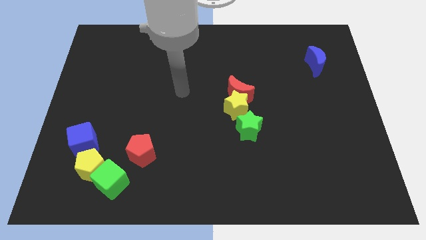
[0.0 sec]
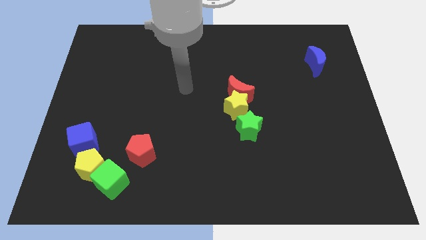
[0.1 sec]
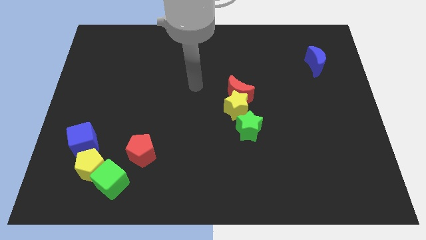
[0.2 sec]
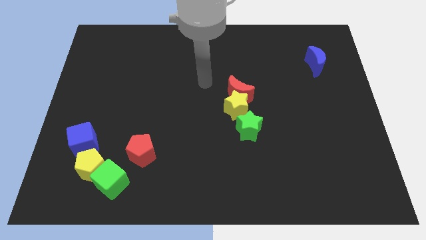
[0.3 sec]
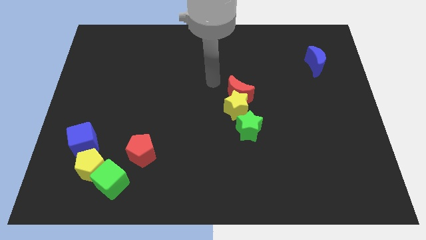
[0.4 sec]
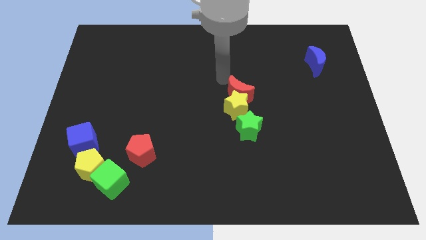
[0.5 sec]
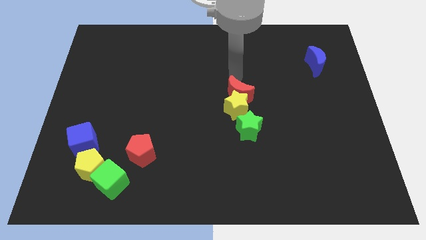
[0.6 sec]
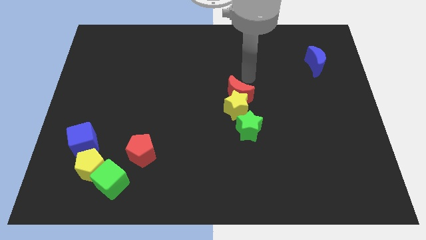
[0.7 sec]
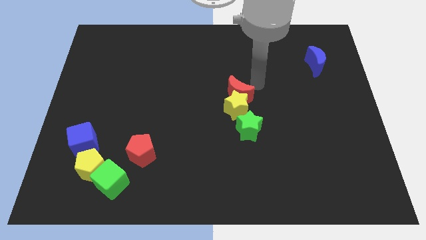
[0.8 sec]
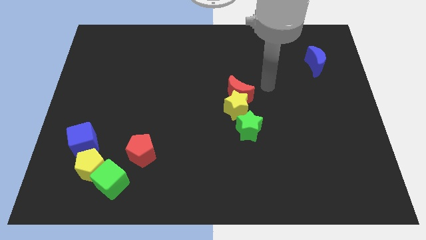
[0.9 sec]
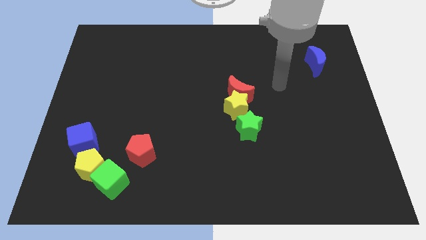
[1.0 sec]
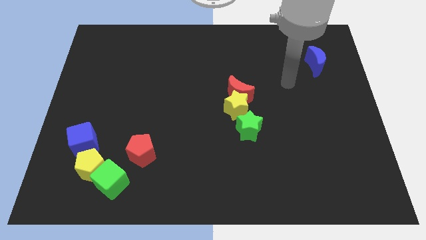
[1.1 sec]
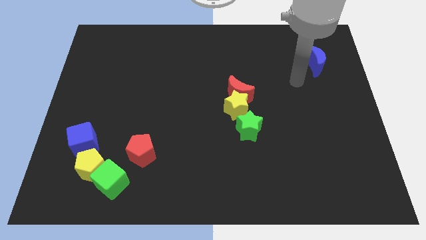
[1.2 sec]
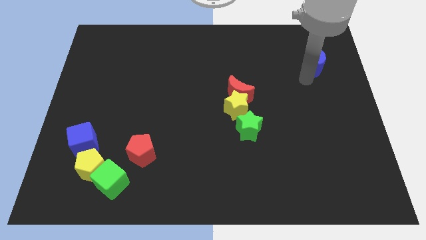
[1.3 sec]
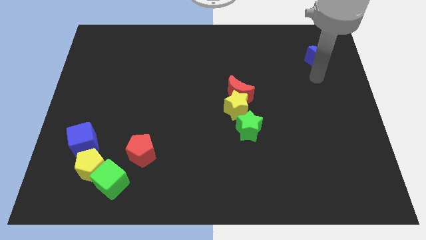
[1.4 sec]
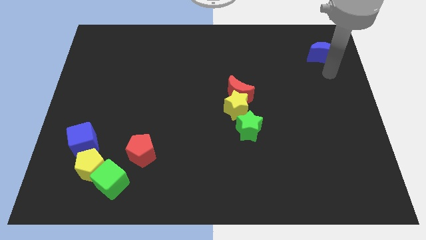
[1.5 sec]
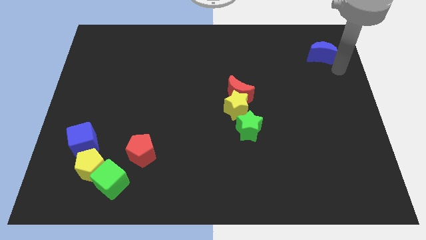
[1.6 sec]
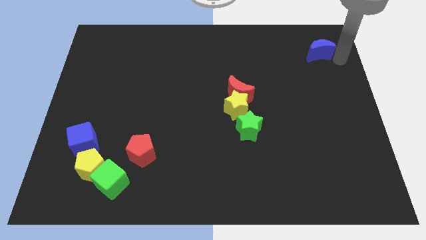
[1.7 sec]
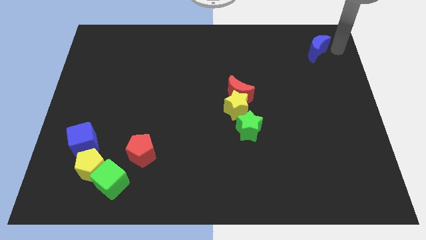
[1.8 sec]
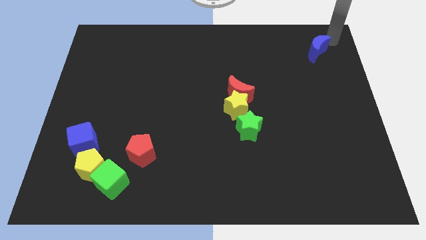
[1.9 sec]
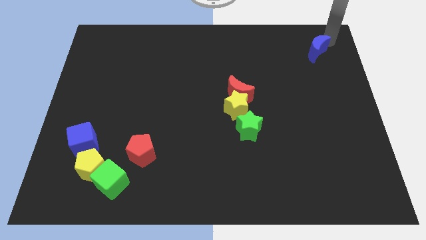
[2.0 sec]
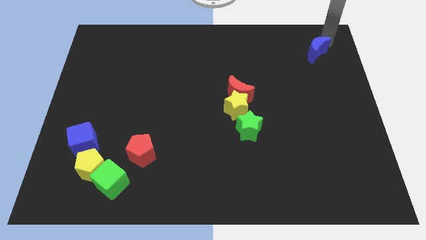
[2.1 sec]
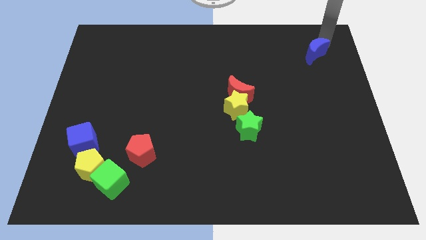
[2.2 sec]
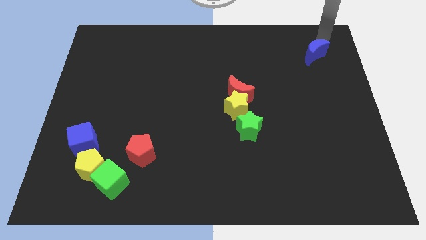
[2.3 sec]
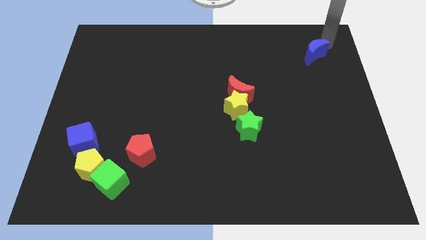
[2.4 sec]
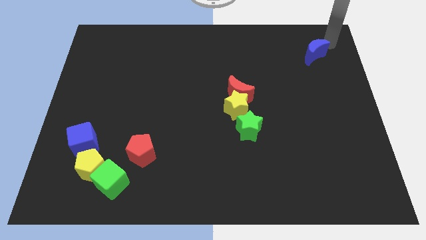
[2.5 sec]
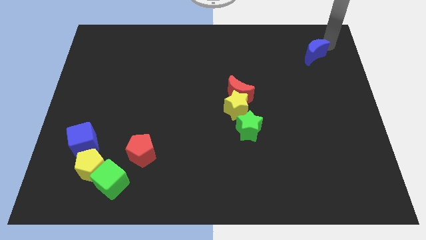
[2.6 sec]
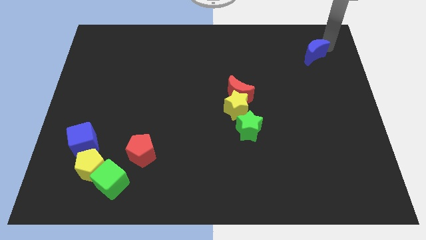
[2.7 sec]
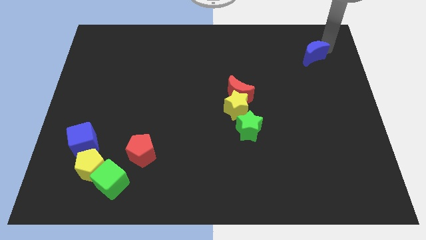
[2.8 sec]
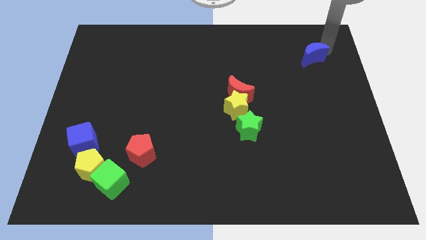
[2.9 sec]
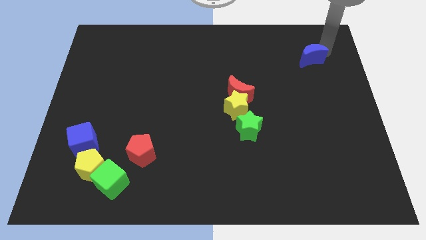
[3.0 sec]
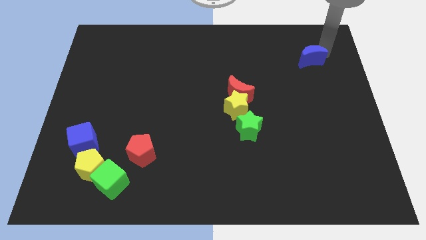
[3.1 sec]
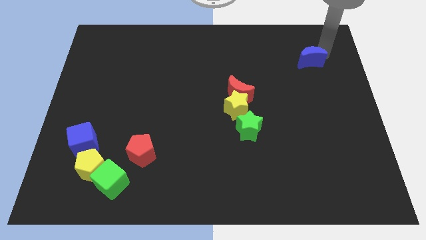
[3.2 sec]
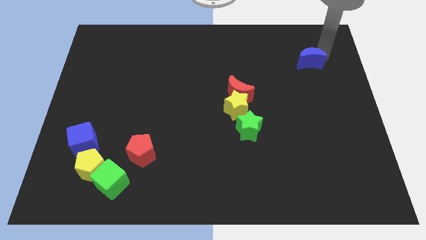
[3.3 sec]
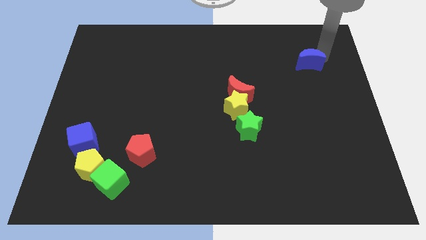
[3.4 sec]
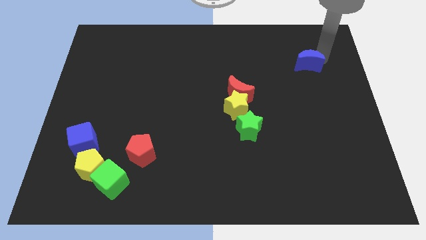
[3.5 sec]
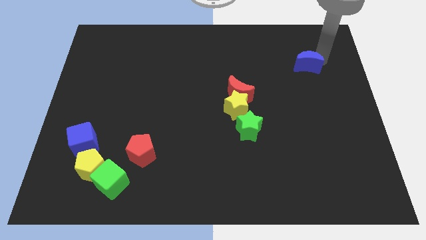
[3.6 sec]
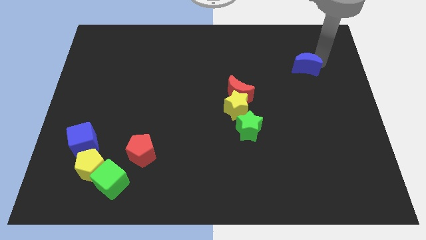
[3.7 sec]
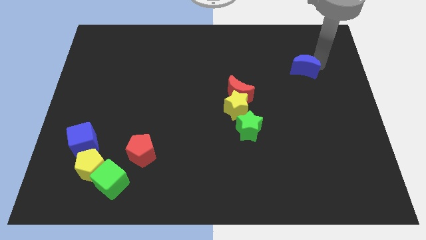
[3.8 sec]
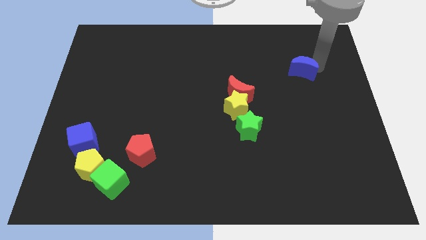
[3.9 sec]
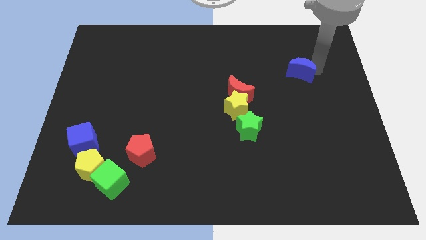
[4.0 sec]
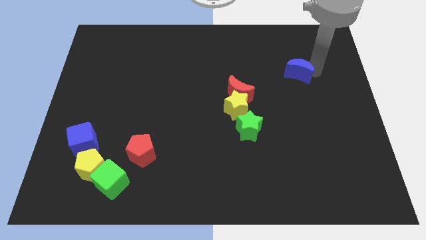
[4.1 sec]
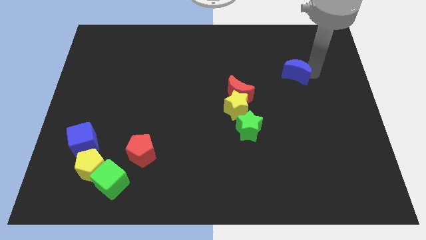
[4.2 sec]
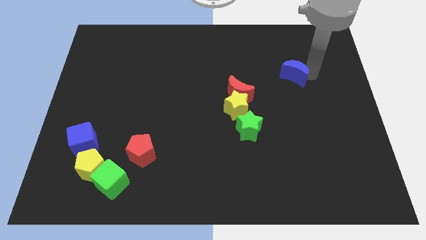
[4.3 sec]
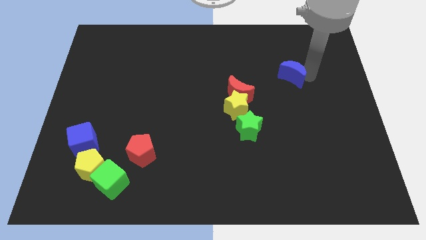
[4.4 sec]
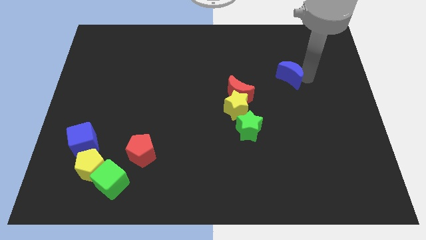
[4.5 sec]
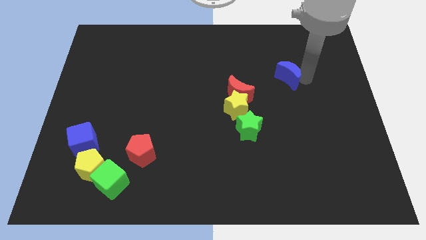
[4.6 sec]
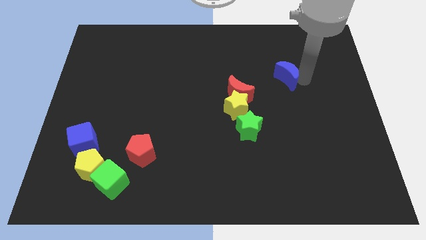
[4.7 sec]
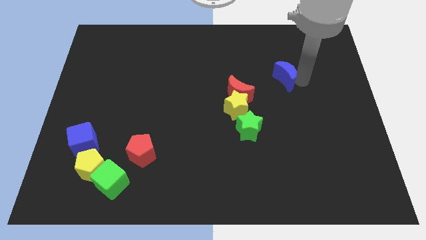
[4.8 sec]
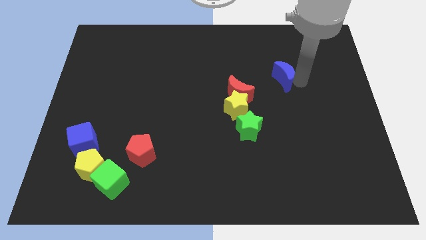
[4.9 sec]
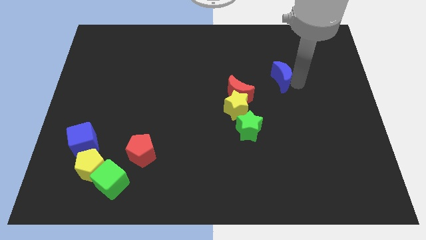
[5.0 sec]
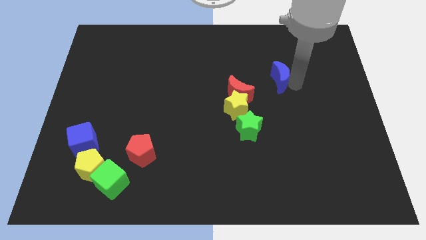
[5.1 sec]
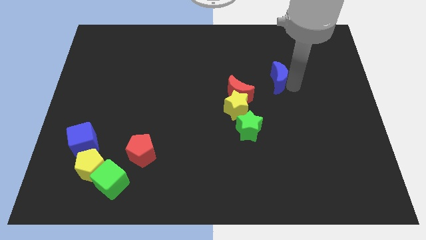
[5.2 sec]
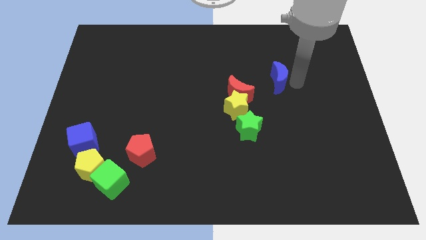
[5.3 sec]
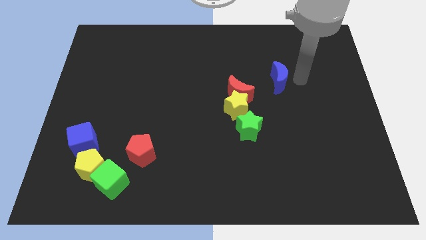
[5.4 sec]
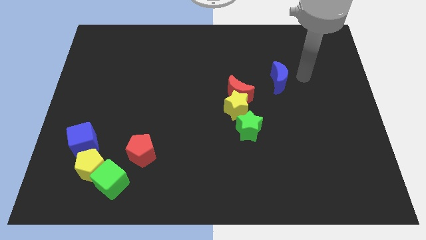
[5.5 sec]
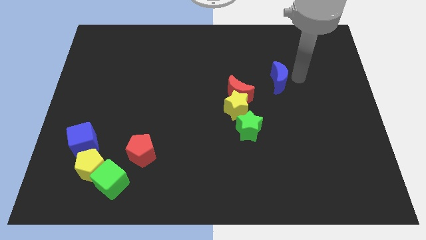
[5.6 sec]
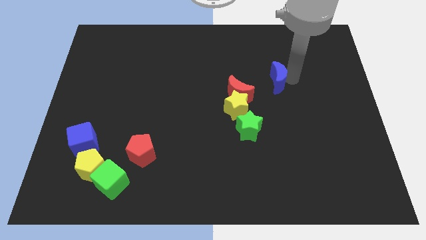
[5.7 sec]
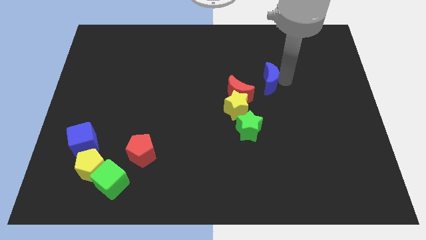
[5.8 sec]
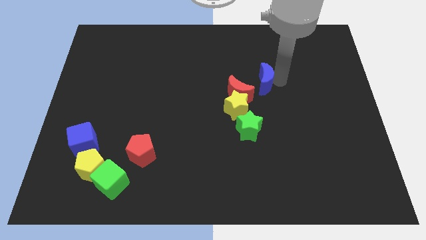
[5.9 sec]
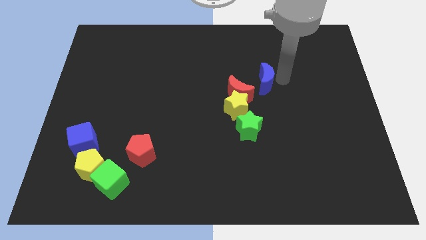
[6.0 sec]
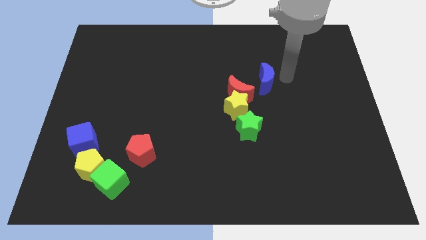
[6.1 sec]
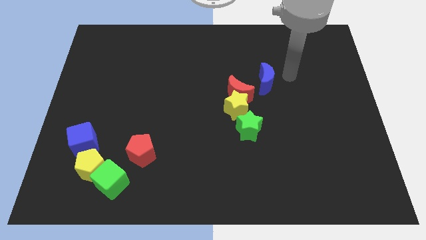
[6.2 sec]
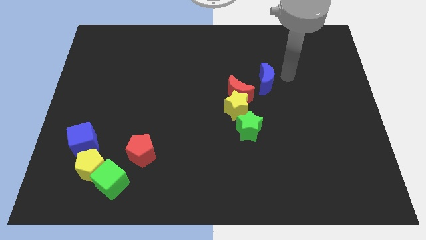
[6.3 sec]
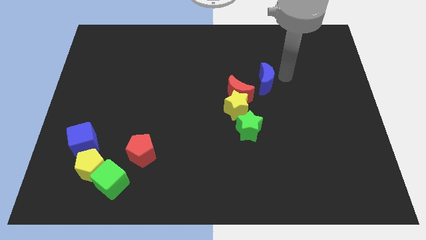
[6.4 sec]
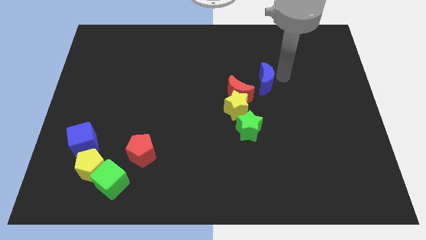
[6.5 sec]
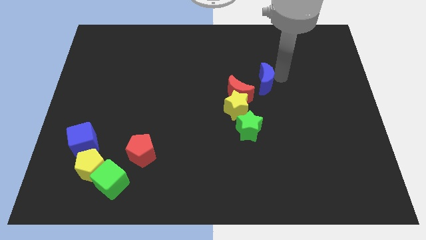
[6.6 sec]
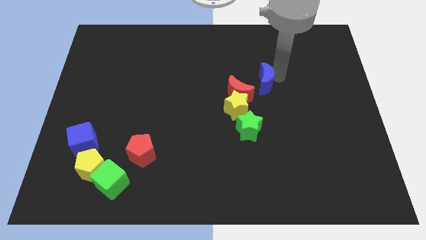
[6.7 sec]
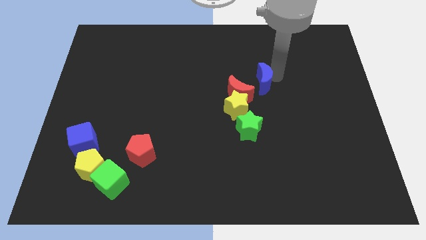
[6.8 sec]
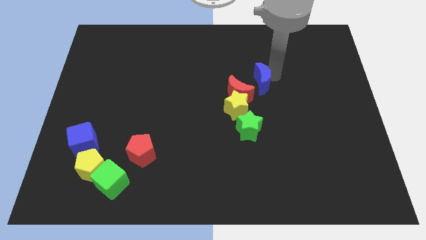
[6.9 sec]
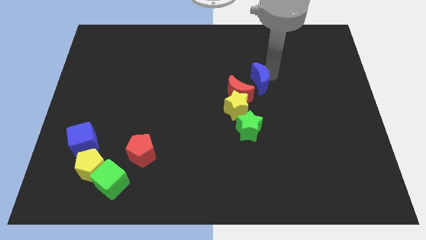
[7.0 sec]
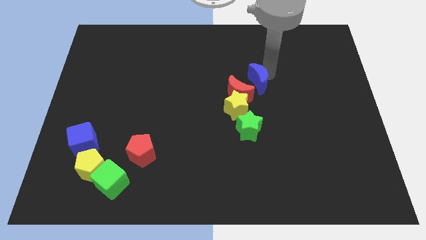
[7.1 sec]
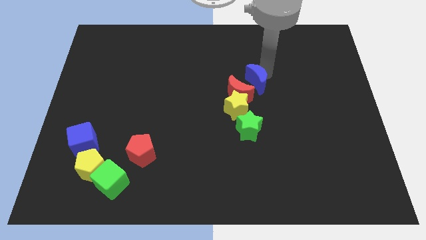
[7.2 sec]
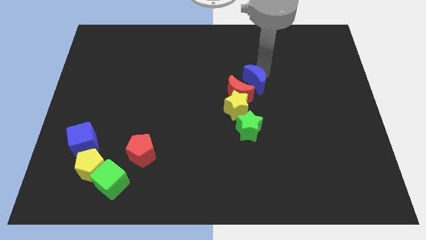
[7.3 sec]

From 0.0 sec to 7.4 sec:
move the blue moon to the red moon
